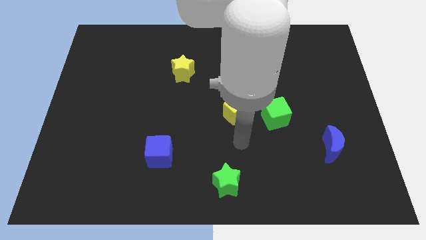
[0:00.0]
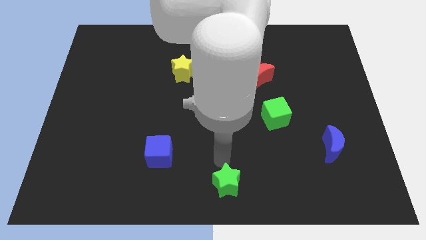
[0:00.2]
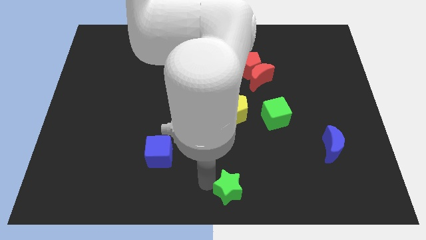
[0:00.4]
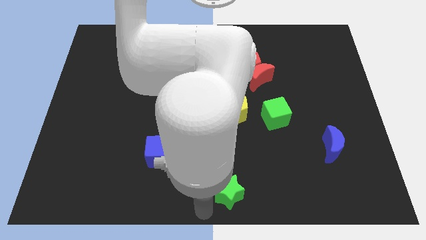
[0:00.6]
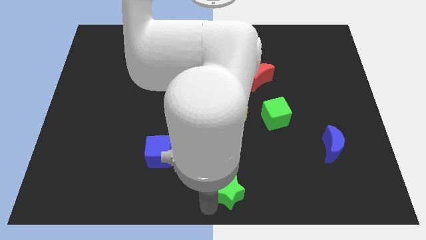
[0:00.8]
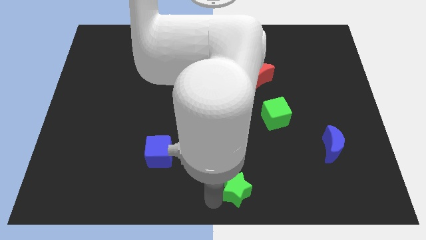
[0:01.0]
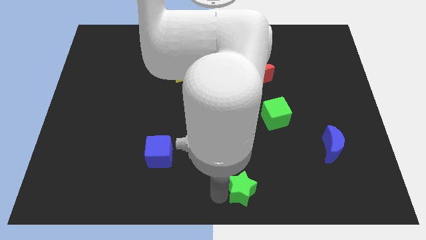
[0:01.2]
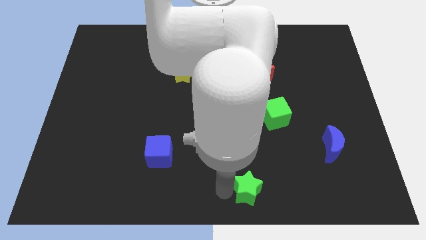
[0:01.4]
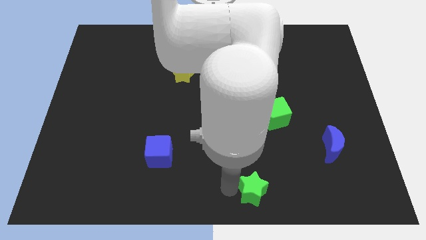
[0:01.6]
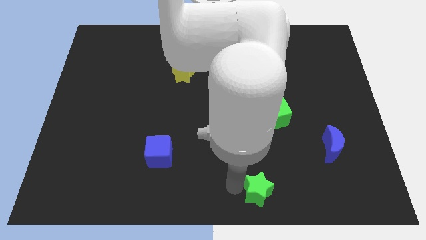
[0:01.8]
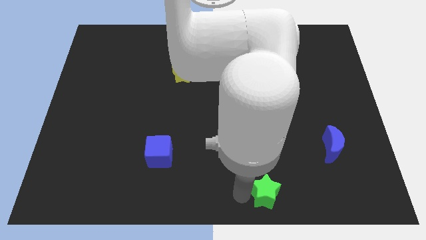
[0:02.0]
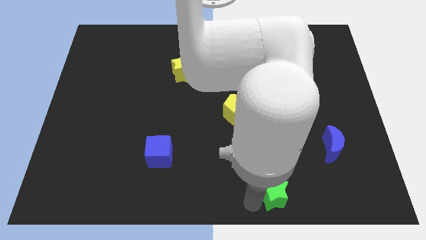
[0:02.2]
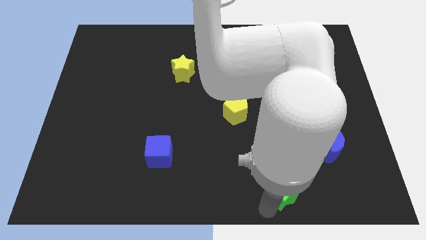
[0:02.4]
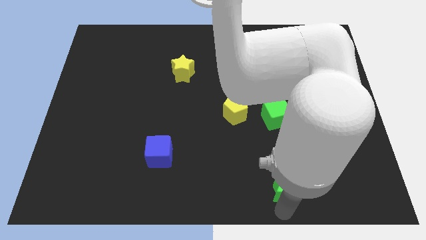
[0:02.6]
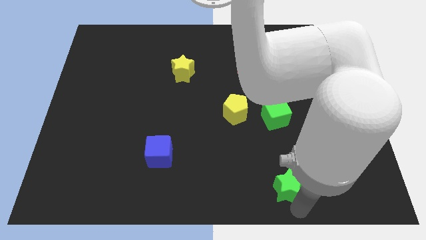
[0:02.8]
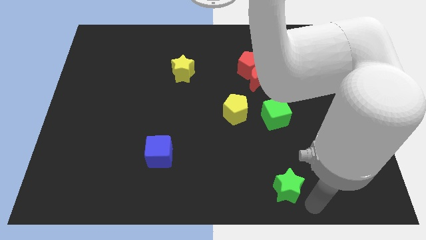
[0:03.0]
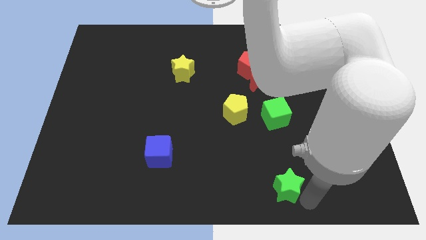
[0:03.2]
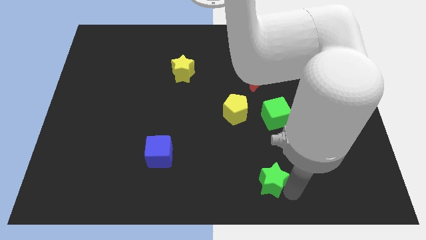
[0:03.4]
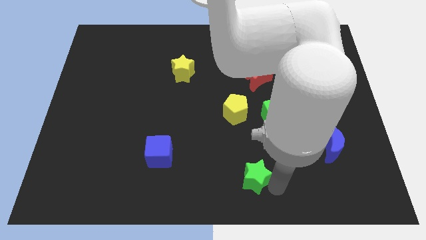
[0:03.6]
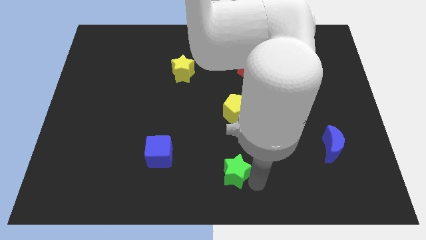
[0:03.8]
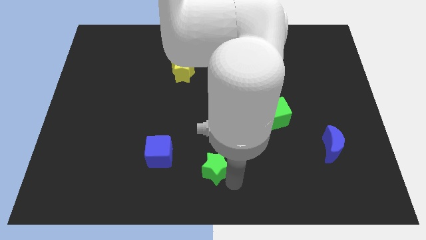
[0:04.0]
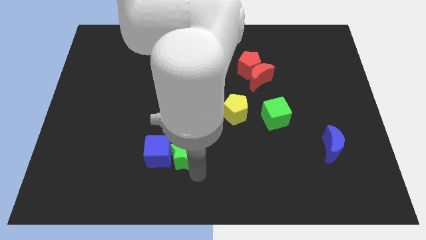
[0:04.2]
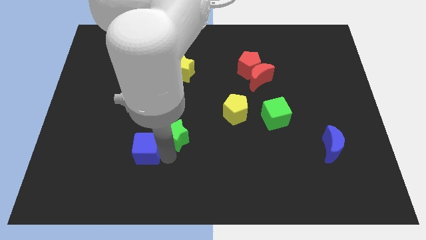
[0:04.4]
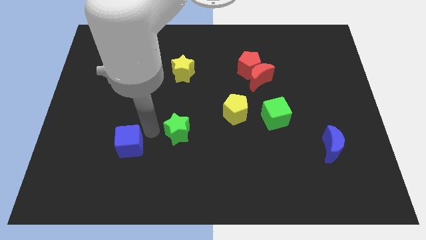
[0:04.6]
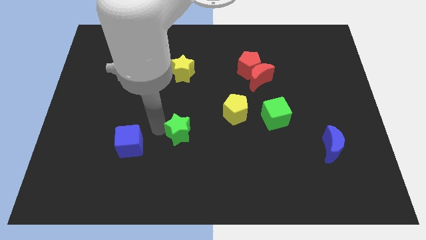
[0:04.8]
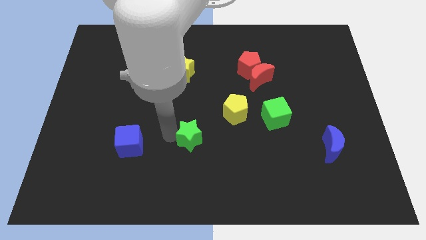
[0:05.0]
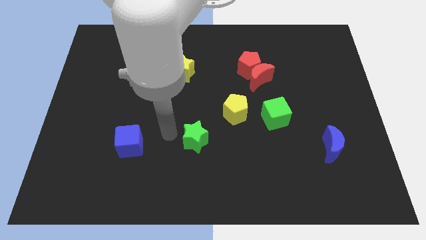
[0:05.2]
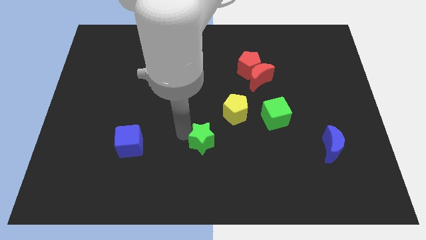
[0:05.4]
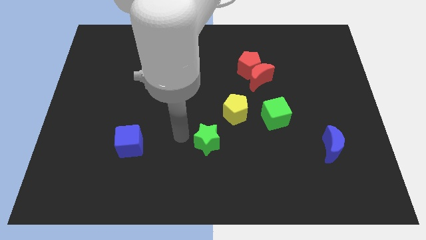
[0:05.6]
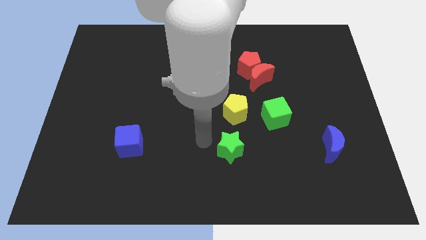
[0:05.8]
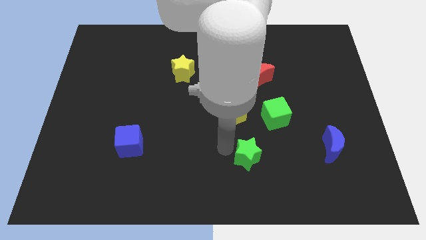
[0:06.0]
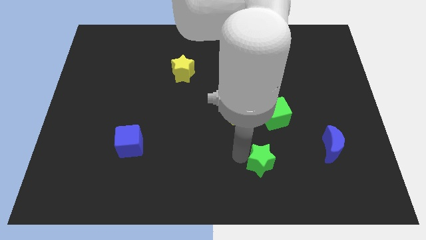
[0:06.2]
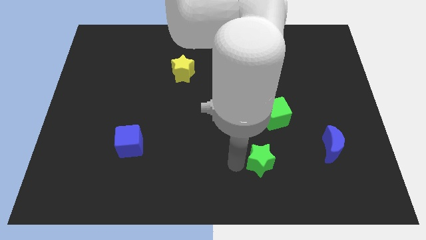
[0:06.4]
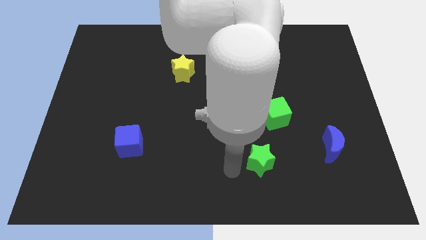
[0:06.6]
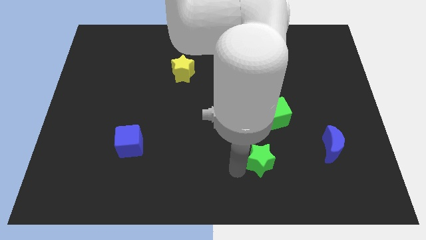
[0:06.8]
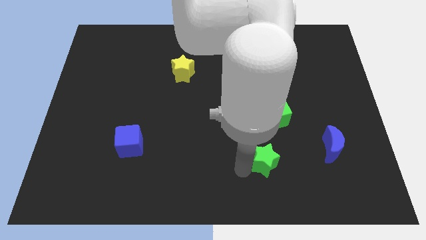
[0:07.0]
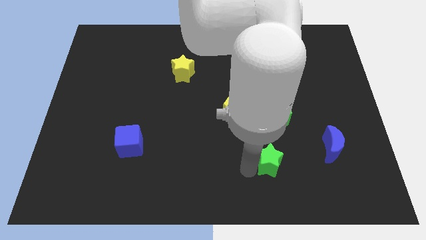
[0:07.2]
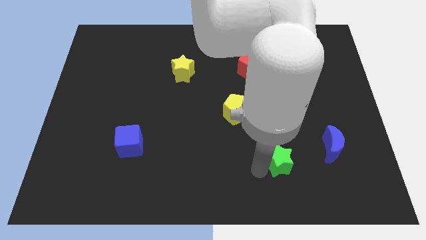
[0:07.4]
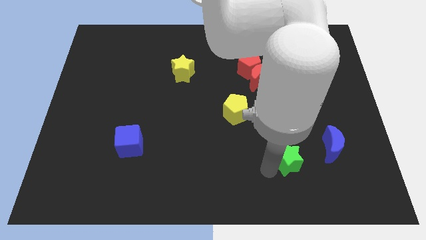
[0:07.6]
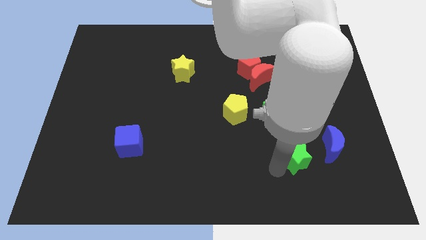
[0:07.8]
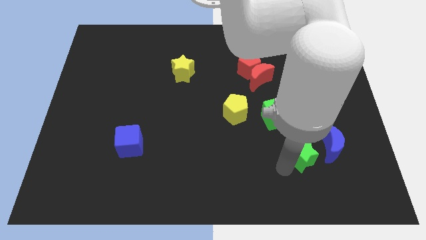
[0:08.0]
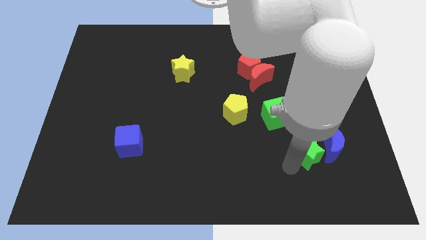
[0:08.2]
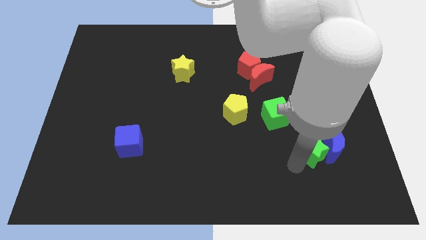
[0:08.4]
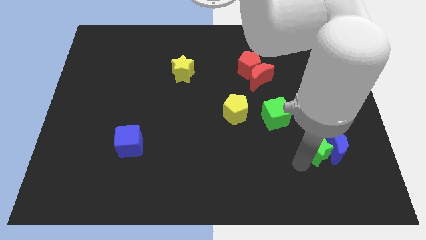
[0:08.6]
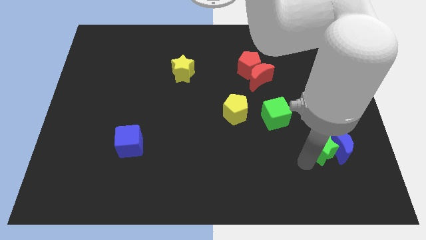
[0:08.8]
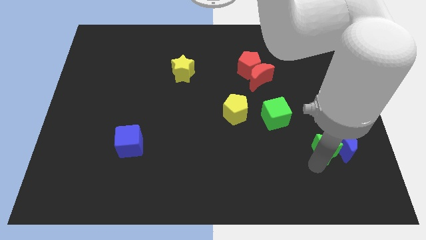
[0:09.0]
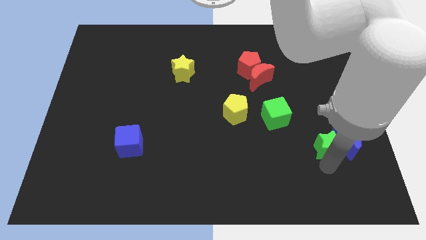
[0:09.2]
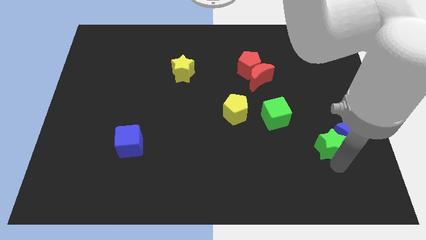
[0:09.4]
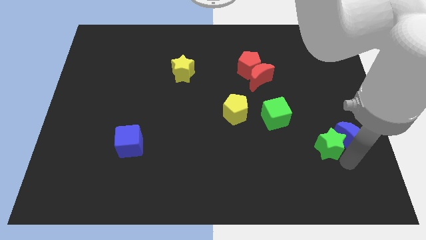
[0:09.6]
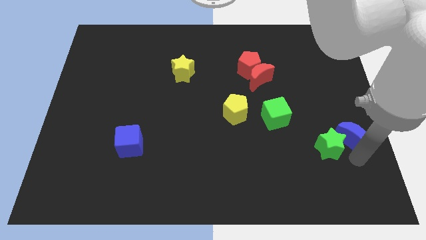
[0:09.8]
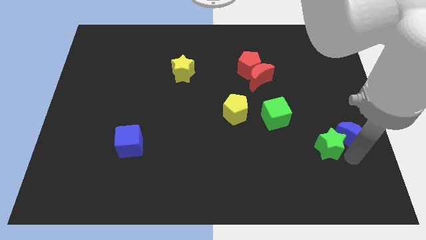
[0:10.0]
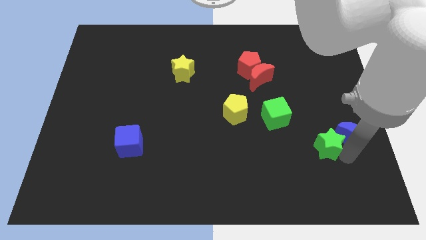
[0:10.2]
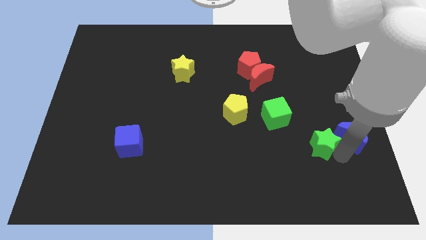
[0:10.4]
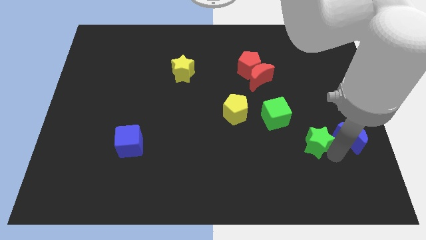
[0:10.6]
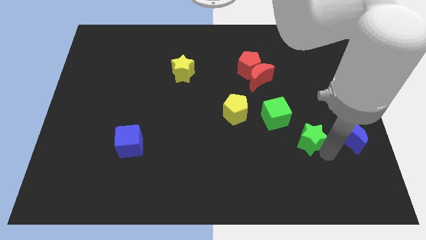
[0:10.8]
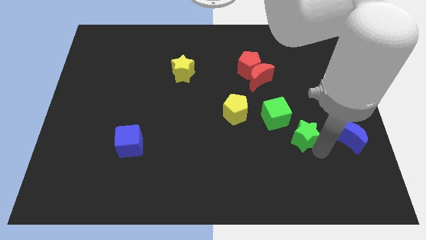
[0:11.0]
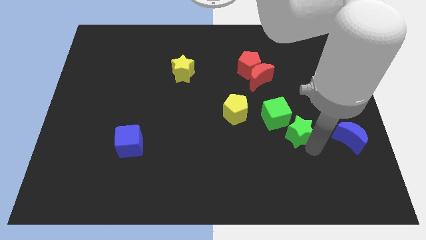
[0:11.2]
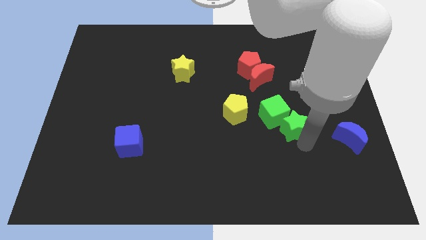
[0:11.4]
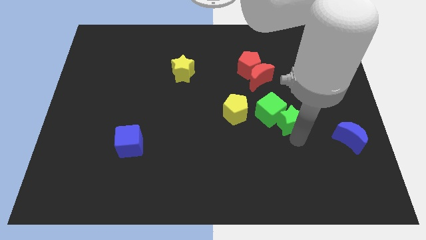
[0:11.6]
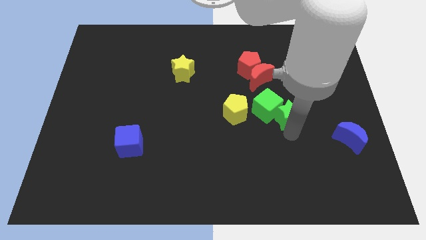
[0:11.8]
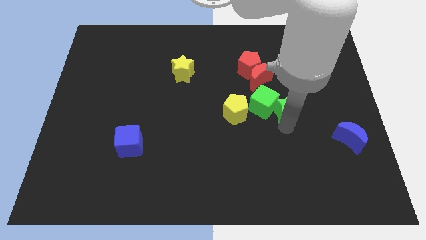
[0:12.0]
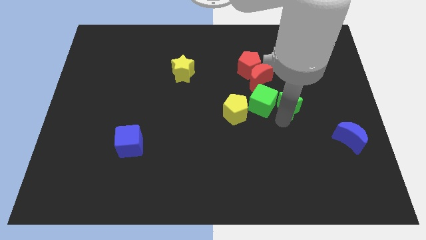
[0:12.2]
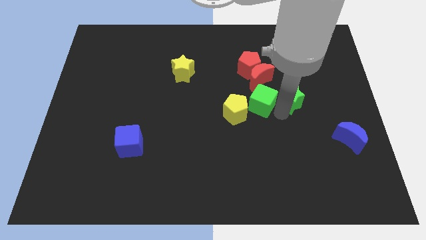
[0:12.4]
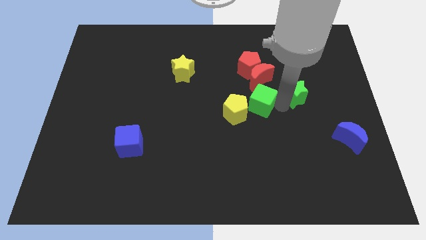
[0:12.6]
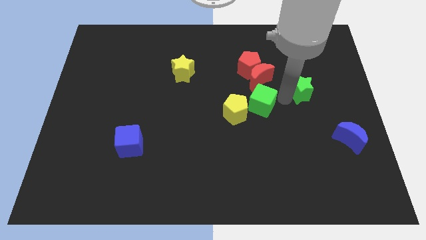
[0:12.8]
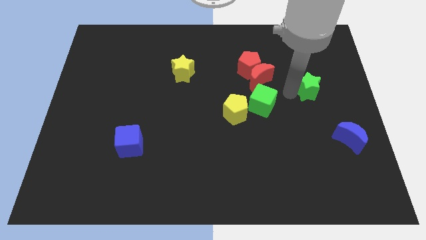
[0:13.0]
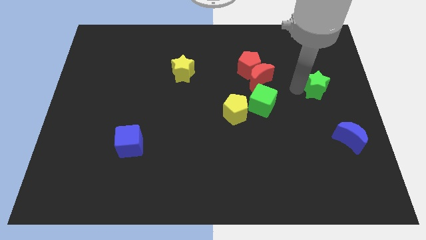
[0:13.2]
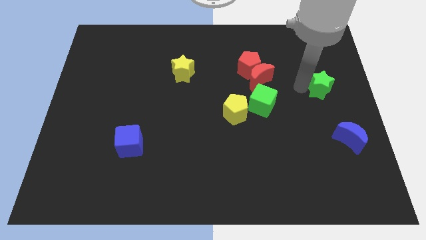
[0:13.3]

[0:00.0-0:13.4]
push the green star to the center right
